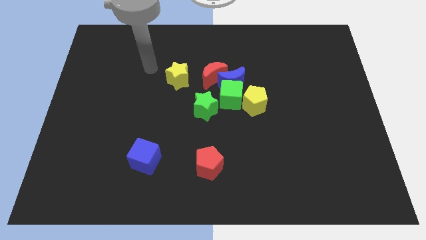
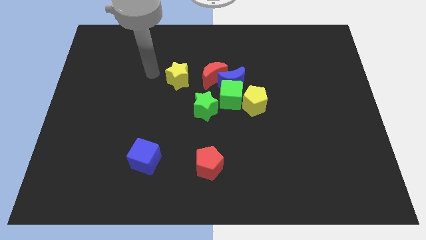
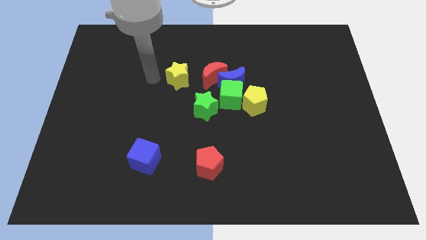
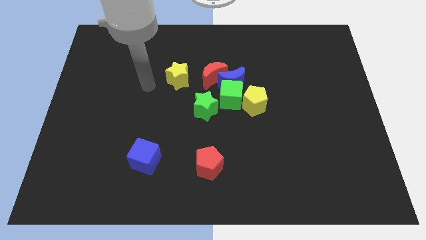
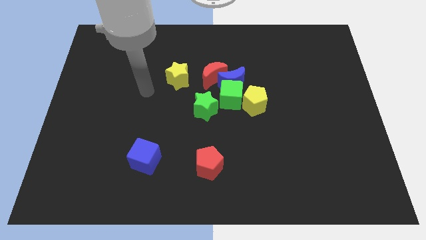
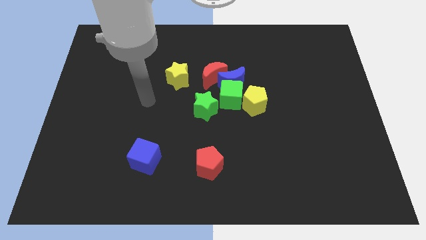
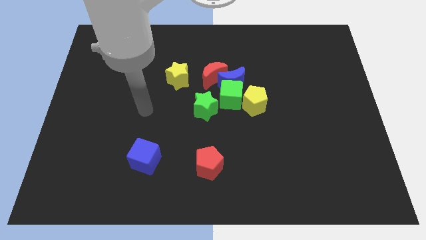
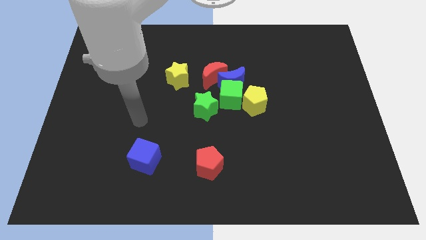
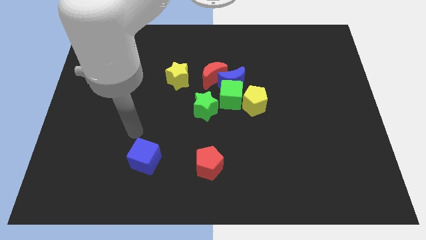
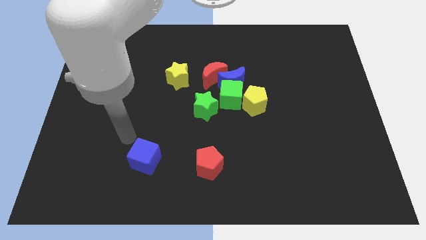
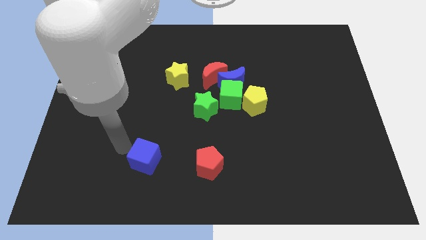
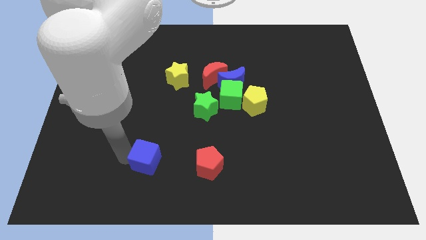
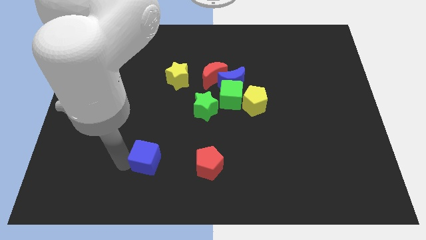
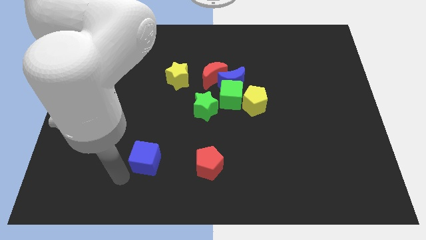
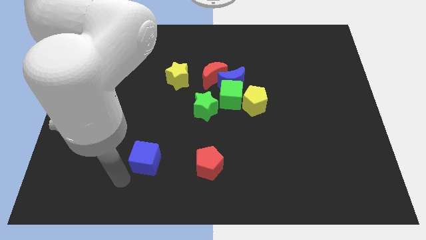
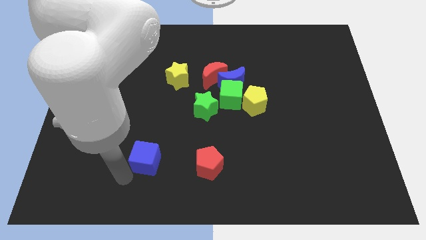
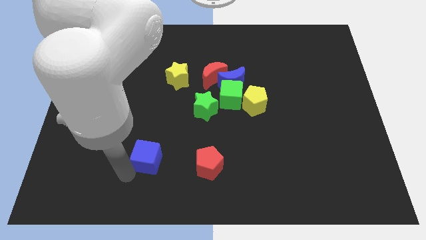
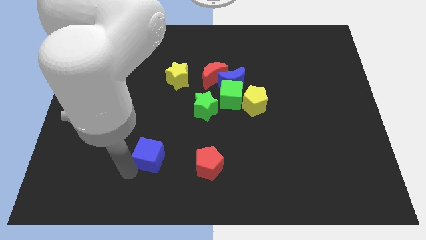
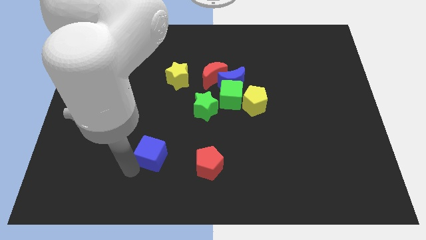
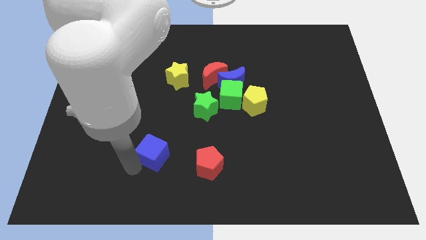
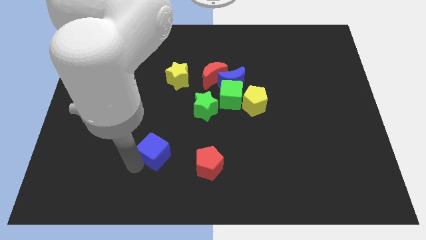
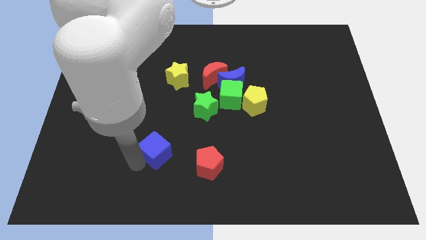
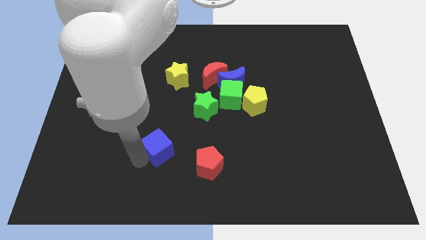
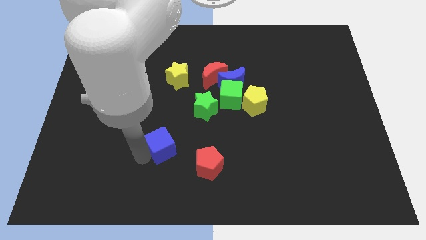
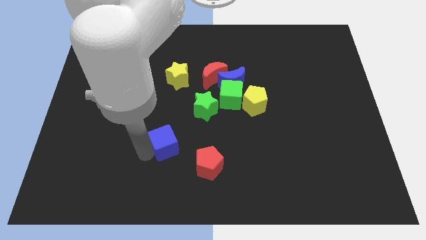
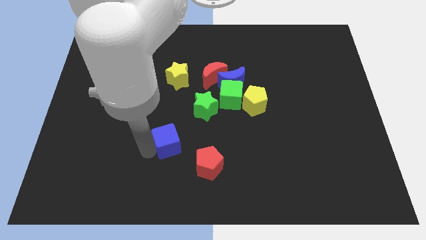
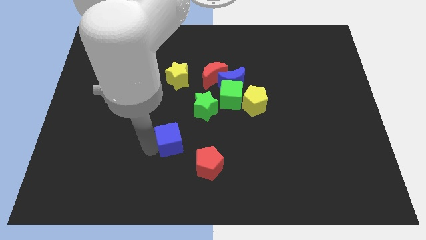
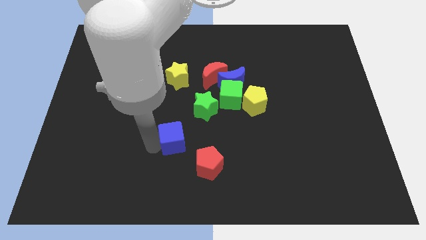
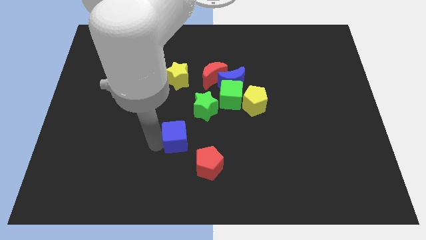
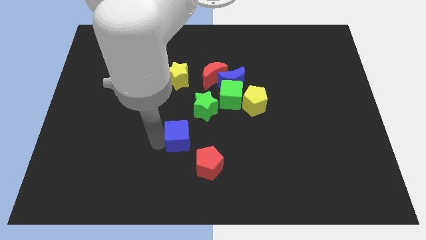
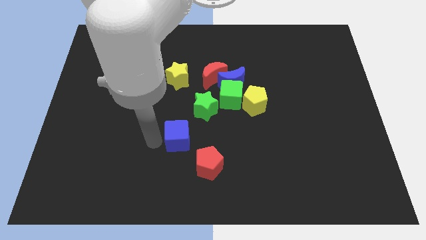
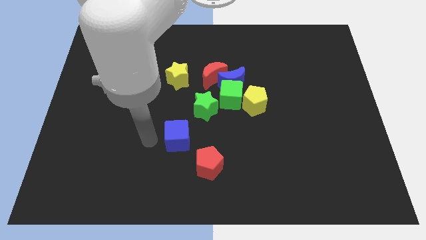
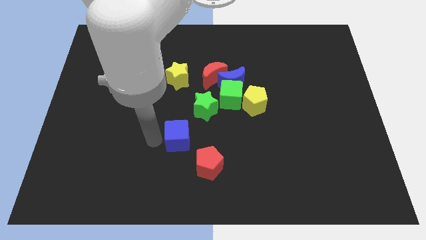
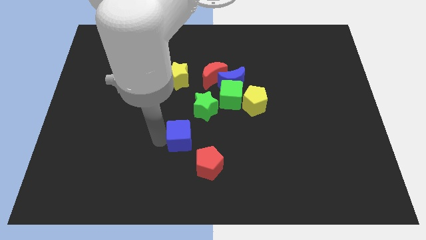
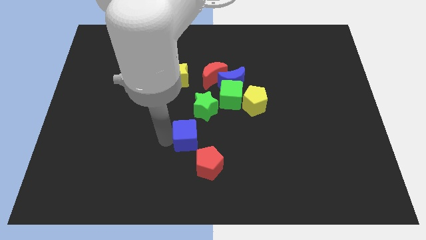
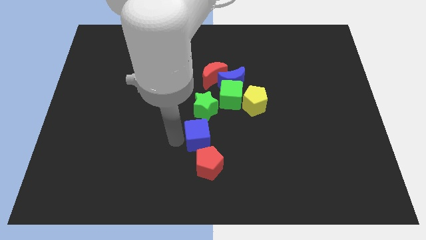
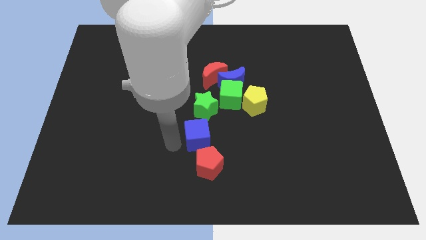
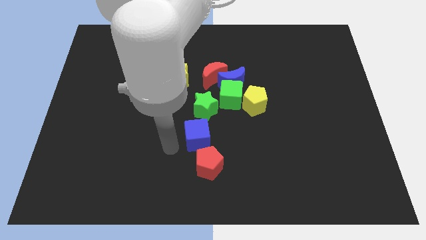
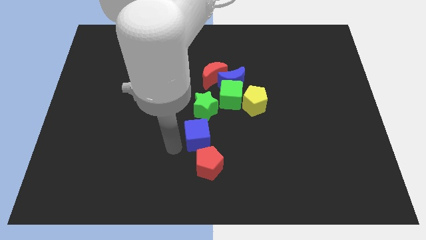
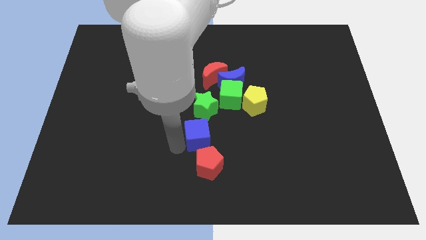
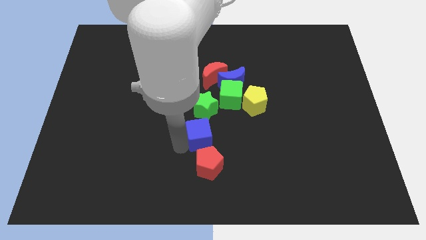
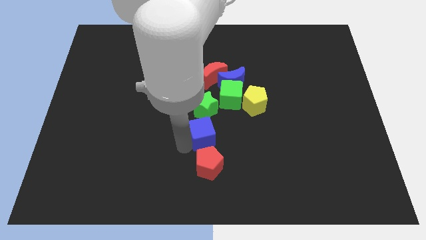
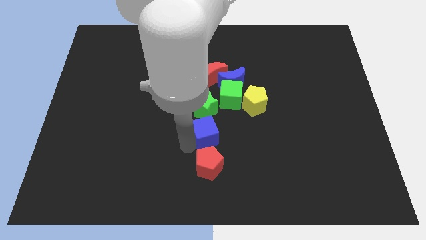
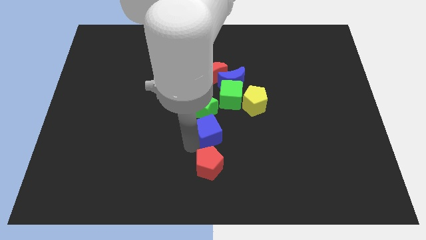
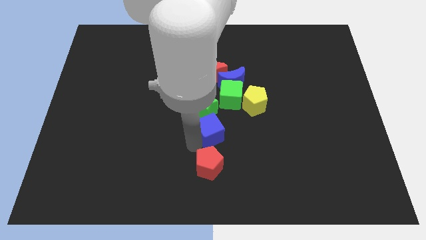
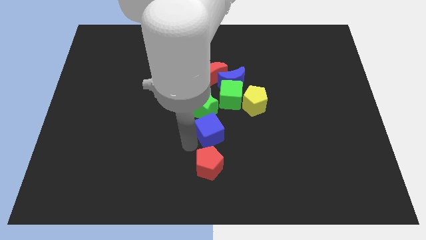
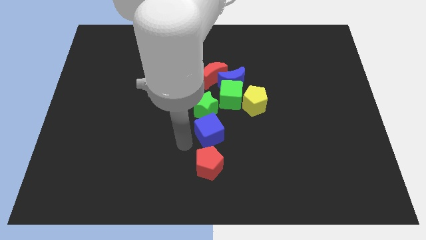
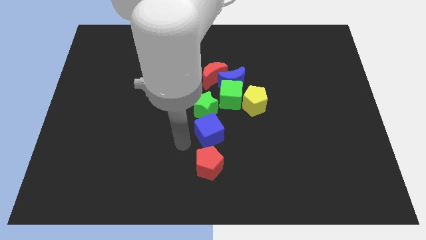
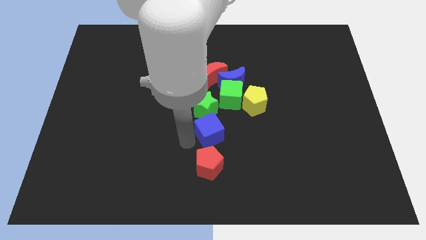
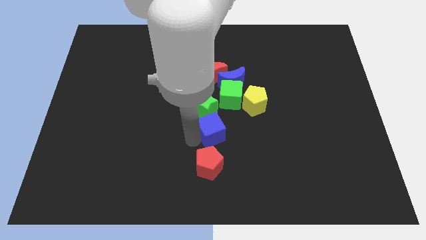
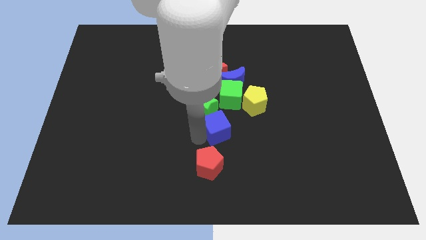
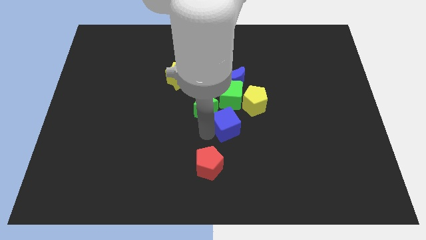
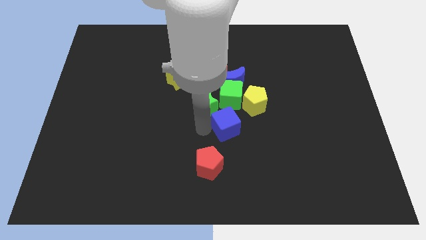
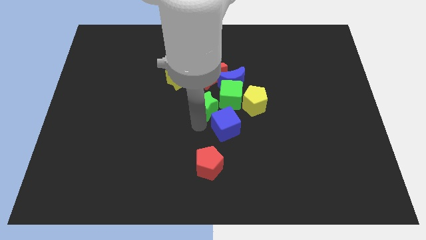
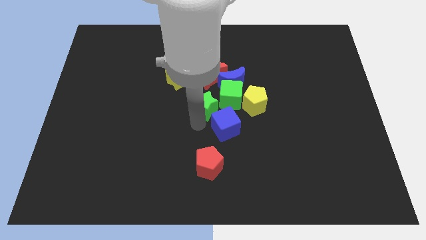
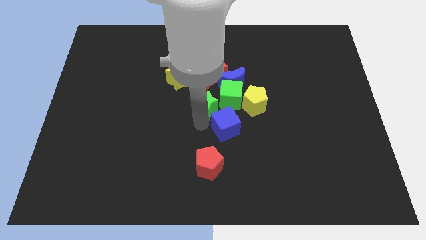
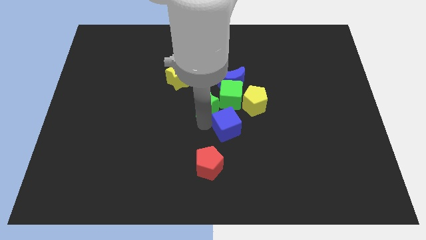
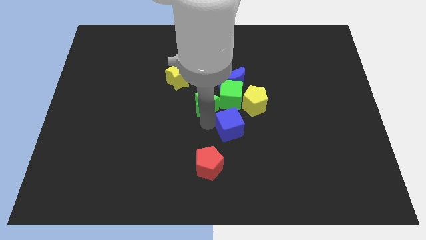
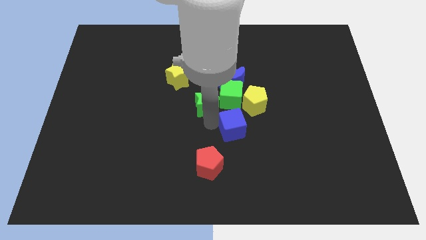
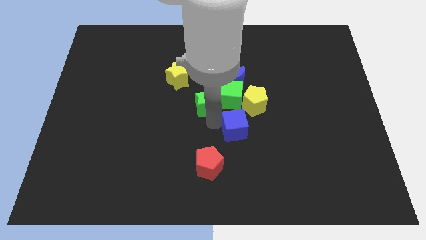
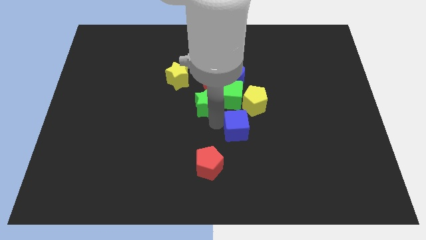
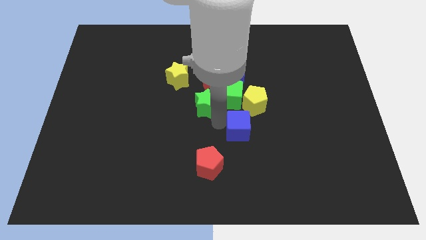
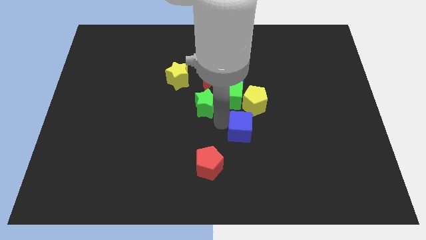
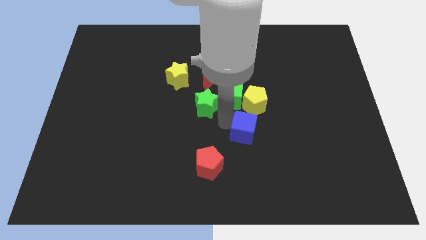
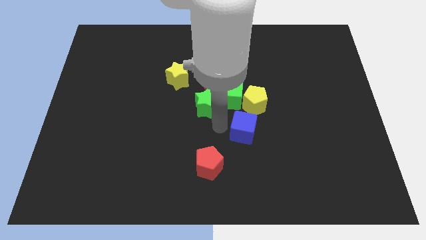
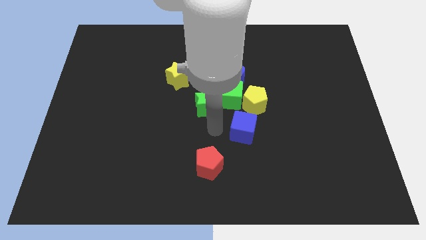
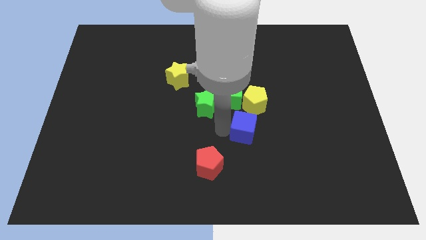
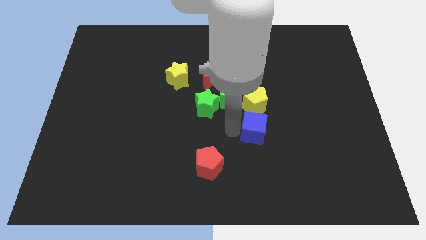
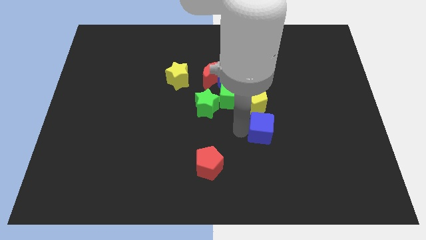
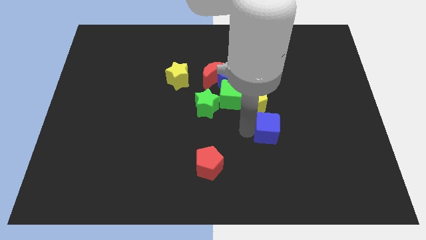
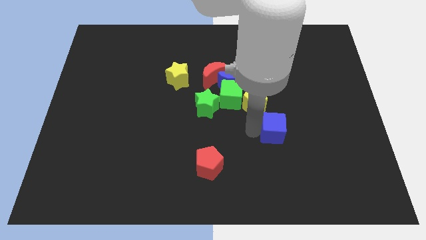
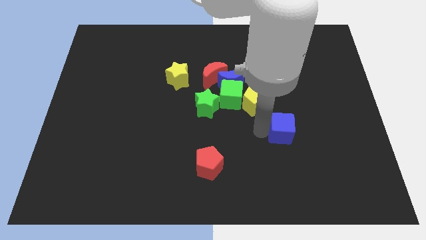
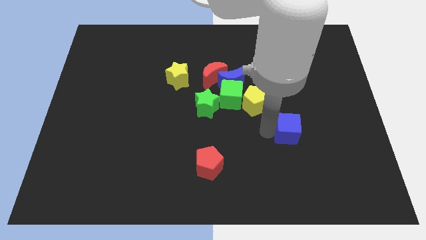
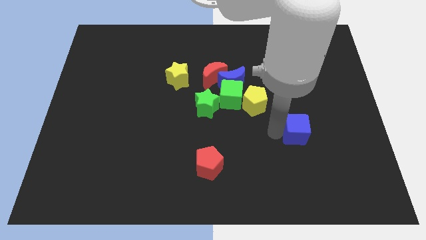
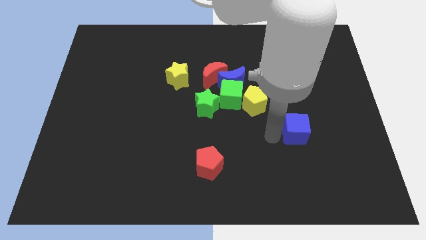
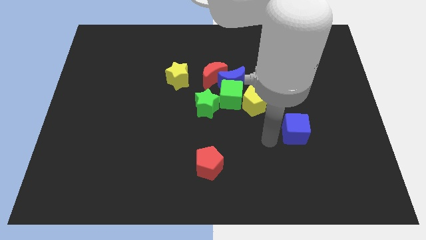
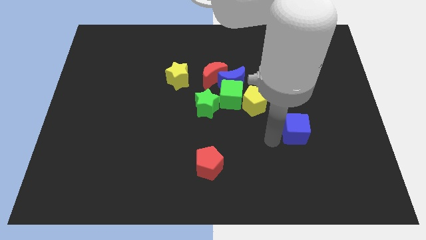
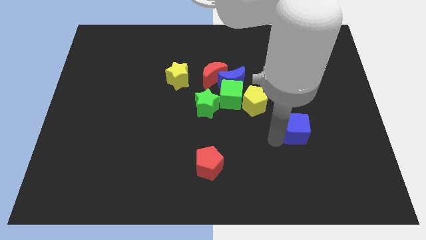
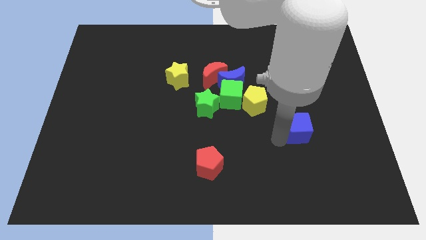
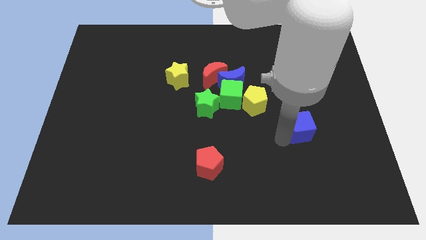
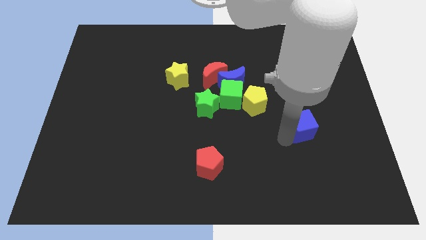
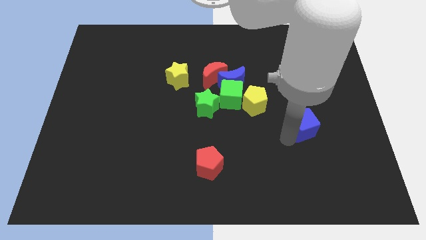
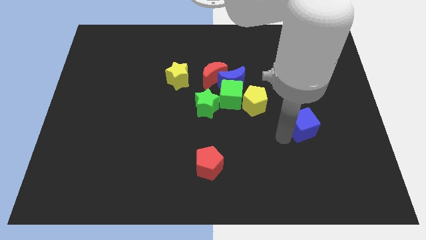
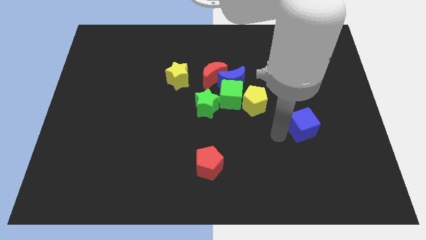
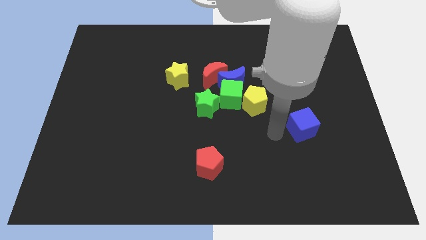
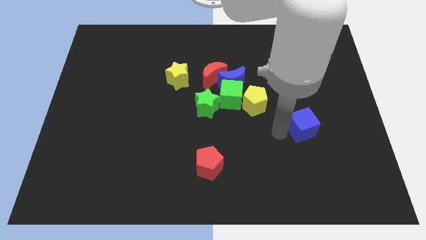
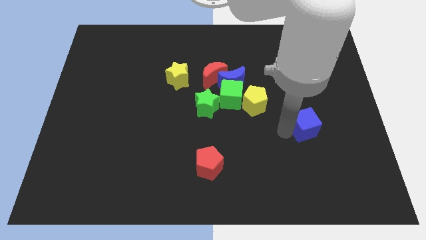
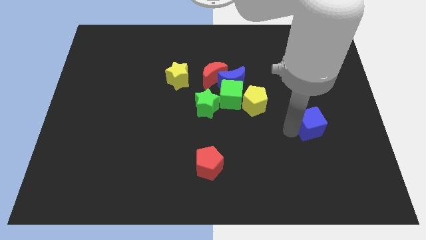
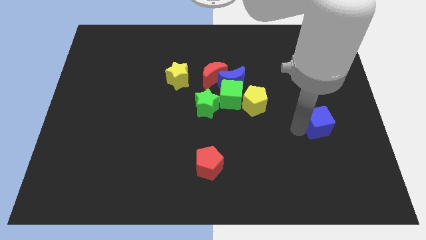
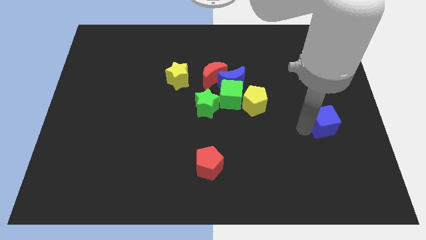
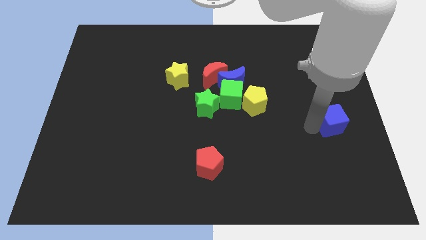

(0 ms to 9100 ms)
move the blue cube to the right side of the board
